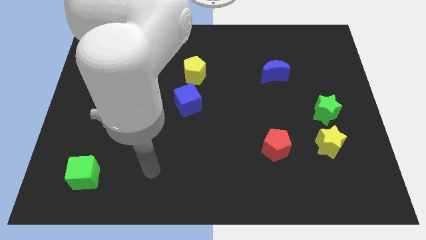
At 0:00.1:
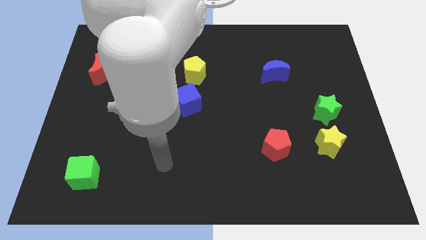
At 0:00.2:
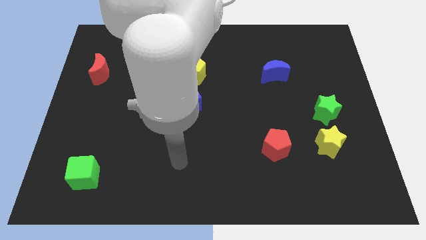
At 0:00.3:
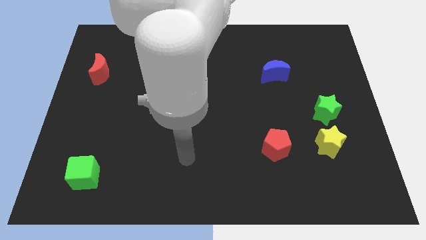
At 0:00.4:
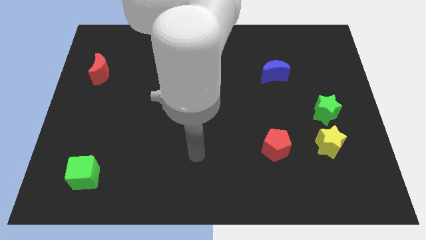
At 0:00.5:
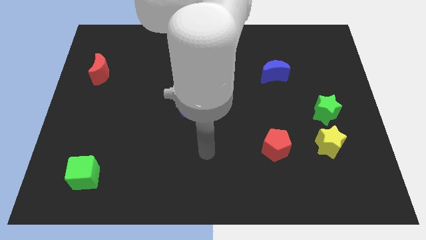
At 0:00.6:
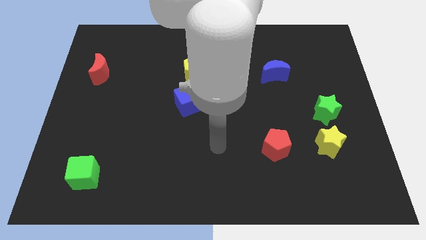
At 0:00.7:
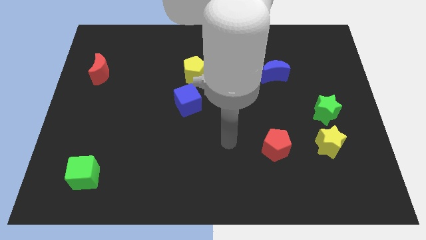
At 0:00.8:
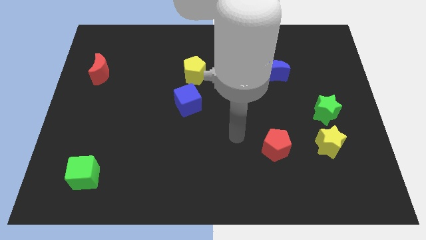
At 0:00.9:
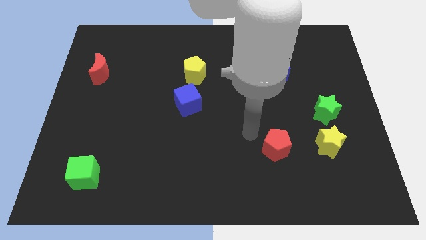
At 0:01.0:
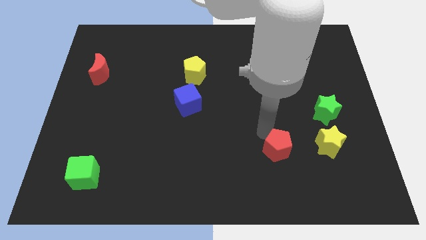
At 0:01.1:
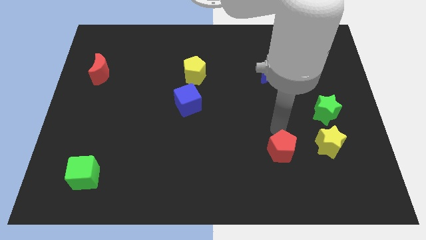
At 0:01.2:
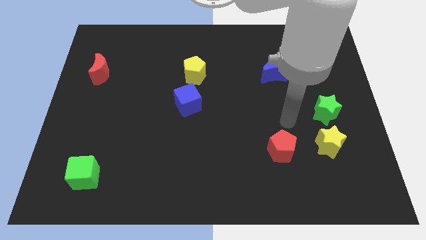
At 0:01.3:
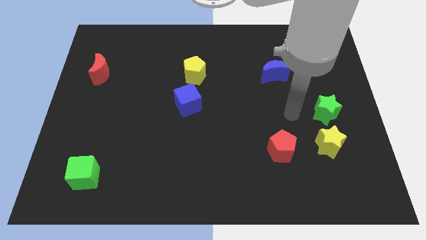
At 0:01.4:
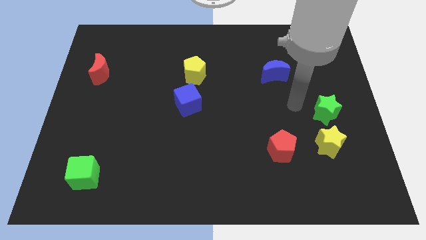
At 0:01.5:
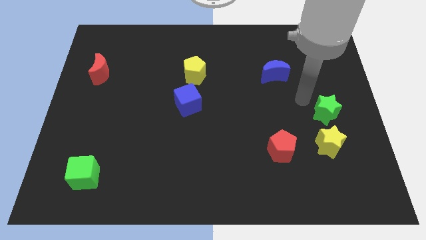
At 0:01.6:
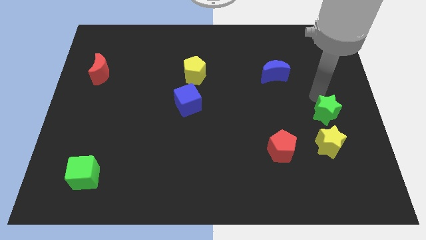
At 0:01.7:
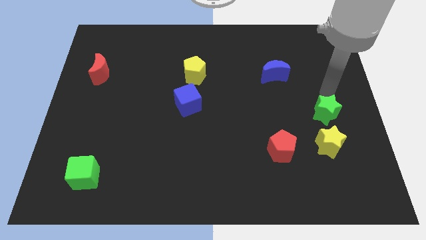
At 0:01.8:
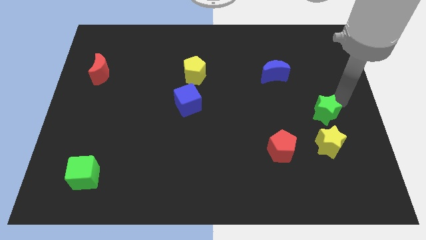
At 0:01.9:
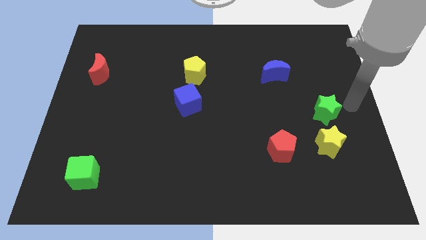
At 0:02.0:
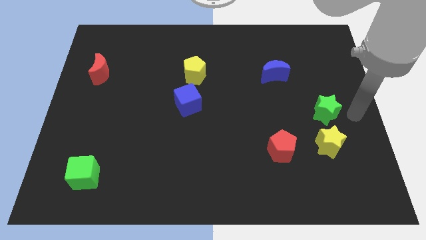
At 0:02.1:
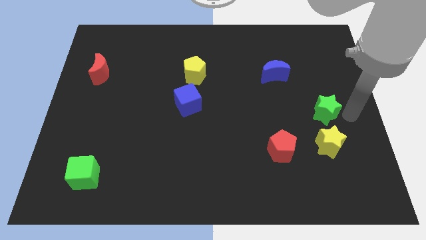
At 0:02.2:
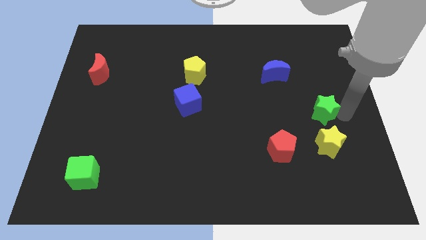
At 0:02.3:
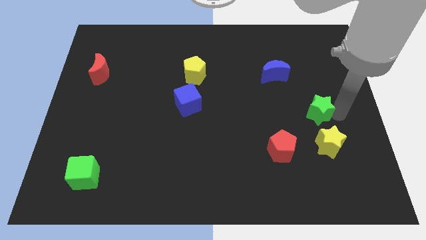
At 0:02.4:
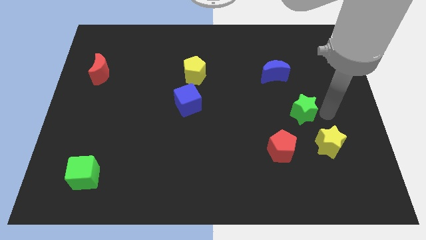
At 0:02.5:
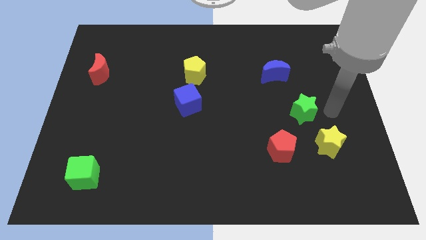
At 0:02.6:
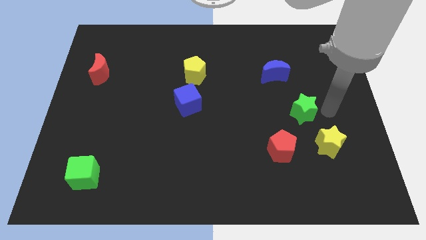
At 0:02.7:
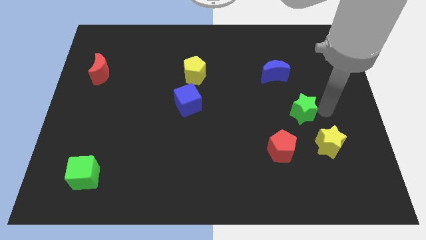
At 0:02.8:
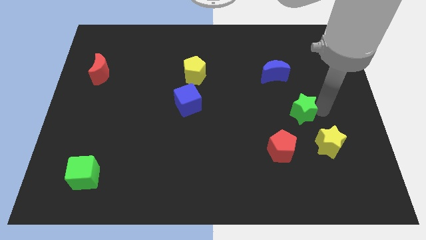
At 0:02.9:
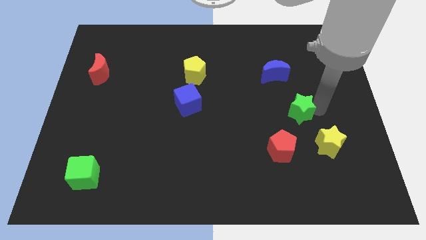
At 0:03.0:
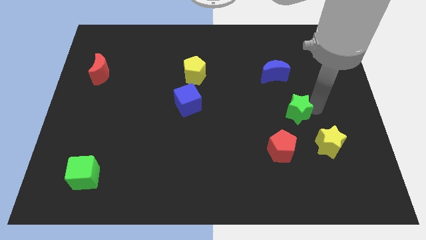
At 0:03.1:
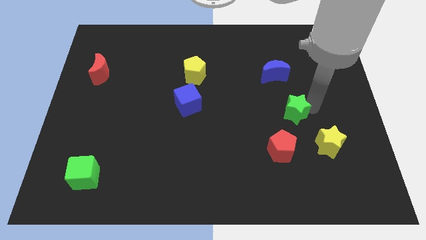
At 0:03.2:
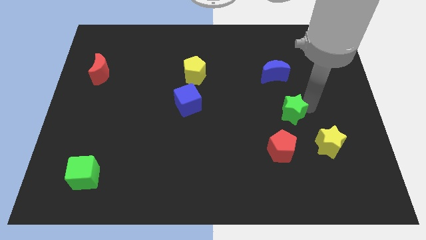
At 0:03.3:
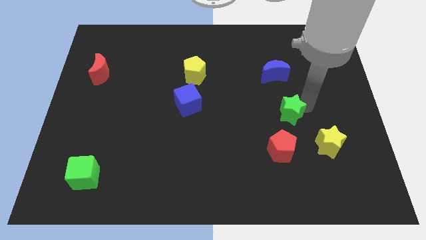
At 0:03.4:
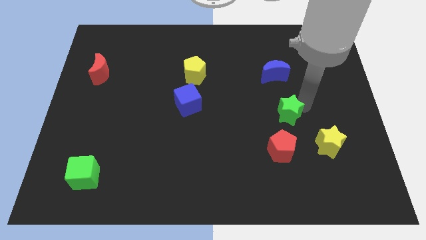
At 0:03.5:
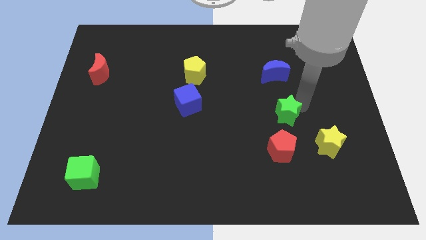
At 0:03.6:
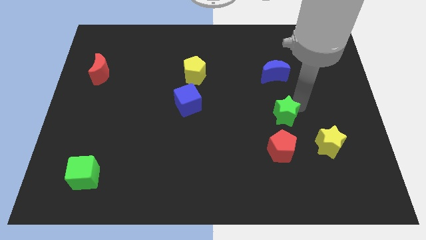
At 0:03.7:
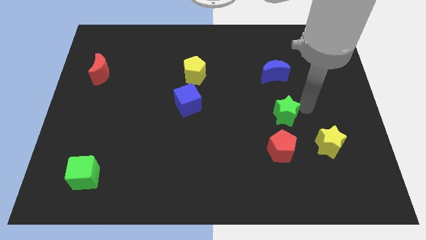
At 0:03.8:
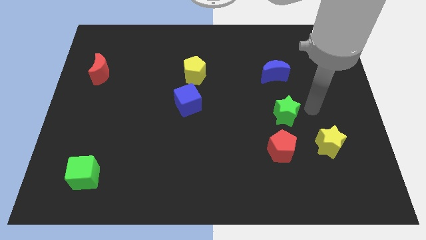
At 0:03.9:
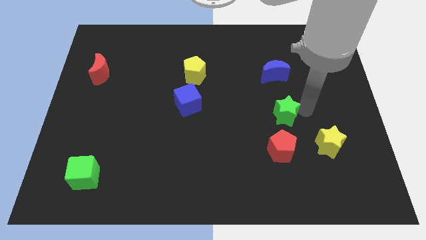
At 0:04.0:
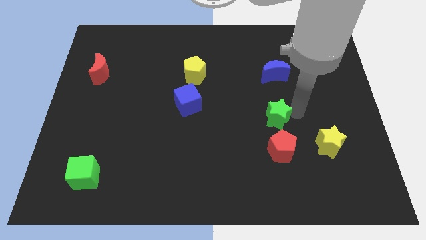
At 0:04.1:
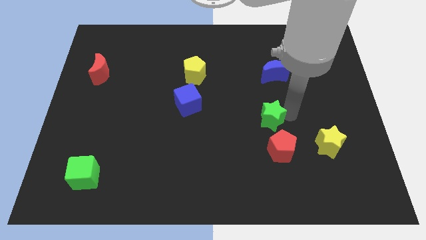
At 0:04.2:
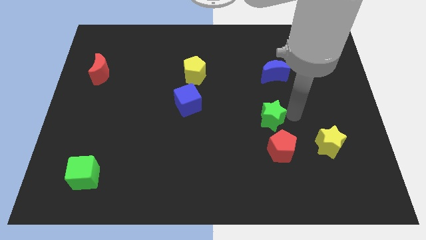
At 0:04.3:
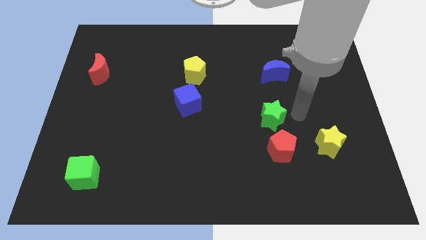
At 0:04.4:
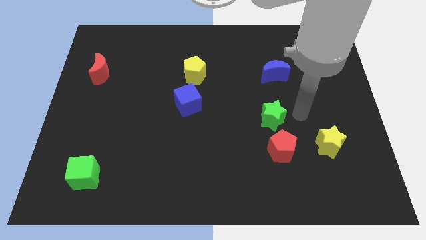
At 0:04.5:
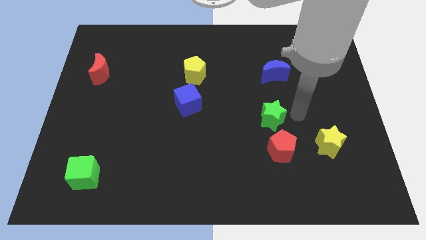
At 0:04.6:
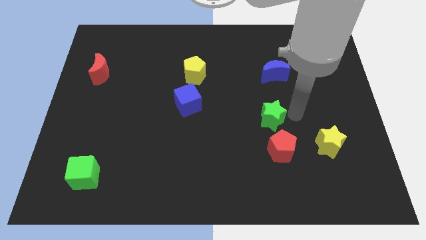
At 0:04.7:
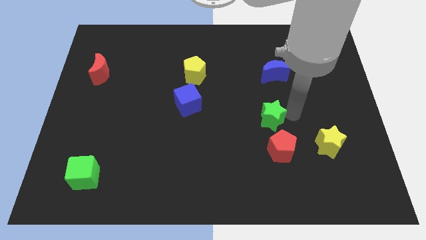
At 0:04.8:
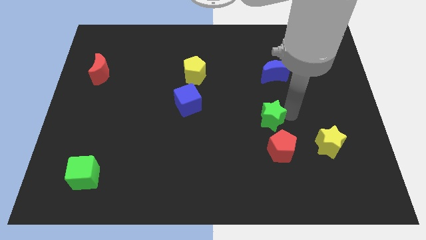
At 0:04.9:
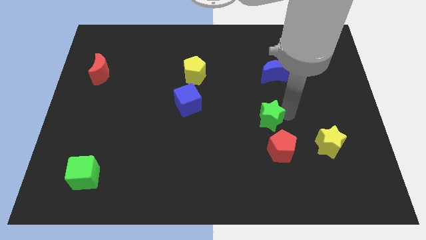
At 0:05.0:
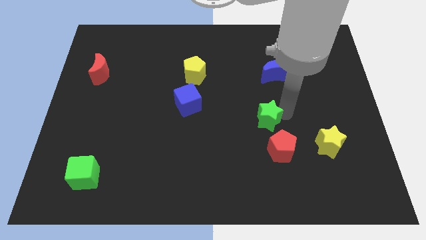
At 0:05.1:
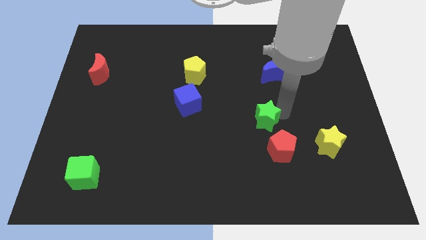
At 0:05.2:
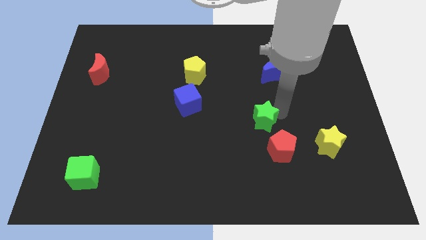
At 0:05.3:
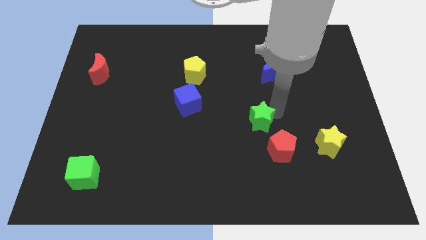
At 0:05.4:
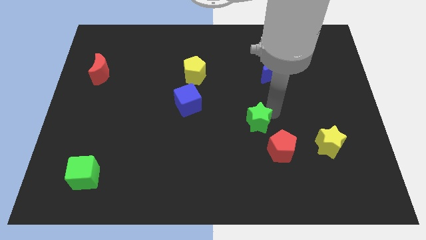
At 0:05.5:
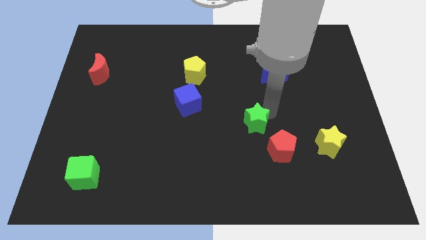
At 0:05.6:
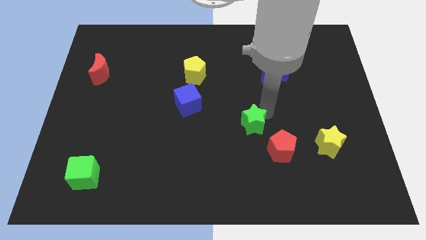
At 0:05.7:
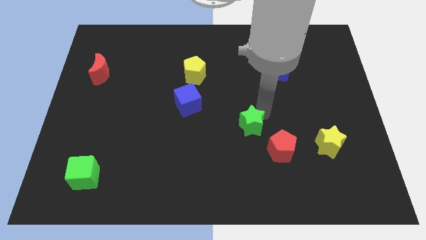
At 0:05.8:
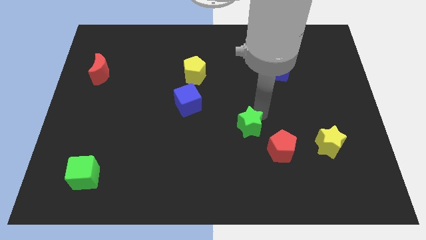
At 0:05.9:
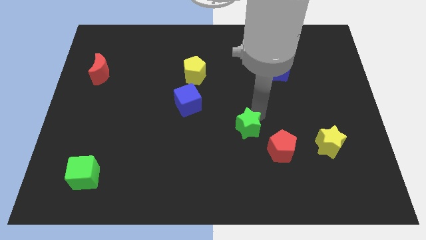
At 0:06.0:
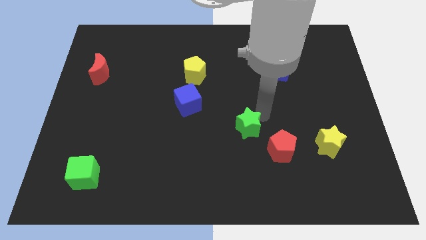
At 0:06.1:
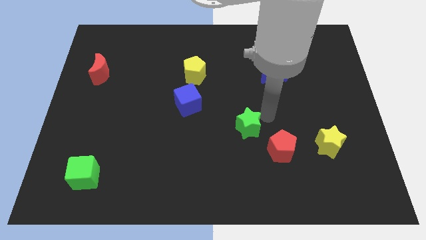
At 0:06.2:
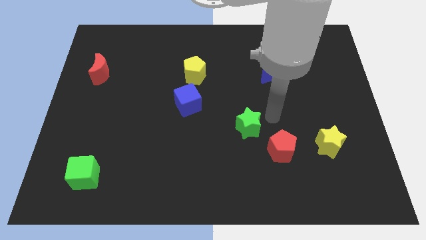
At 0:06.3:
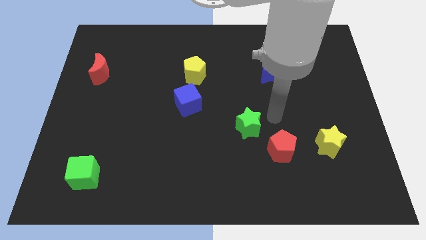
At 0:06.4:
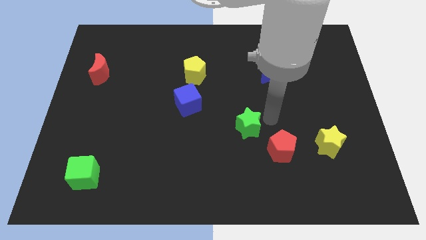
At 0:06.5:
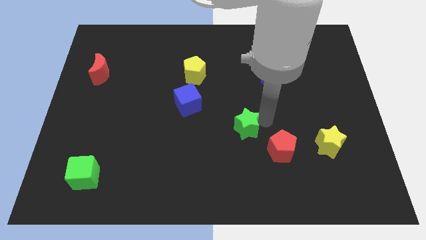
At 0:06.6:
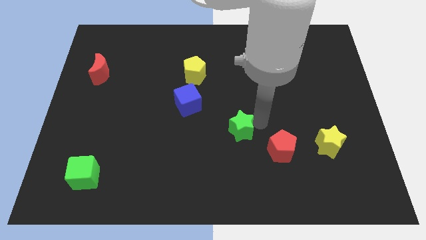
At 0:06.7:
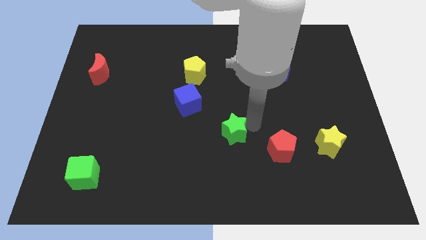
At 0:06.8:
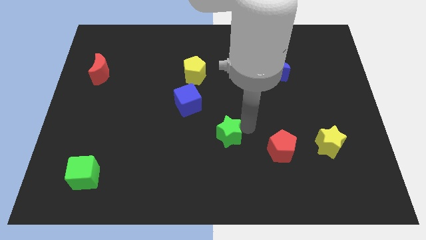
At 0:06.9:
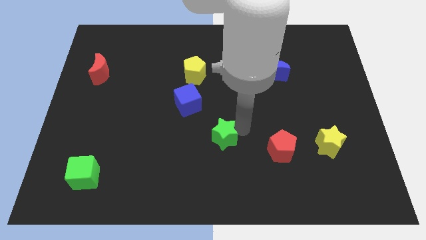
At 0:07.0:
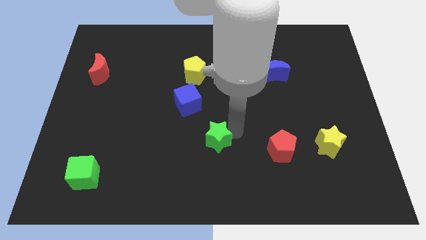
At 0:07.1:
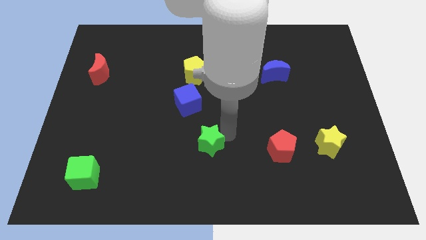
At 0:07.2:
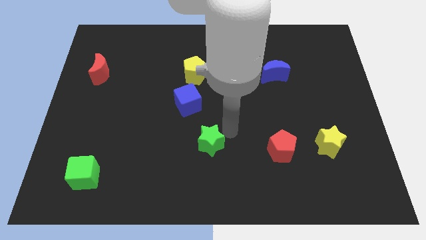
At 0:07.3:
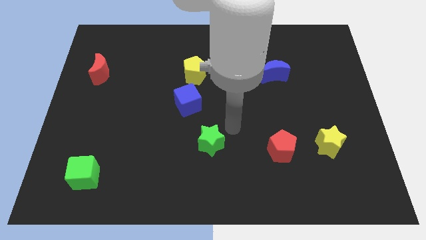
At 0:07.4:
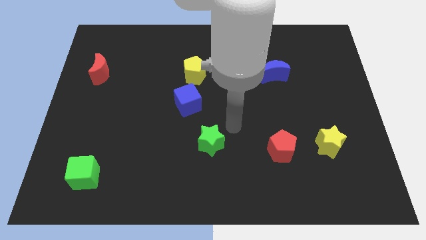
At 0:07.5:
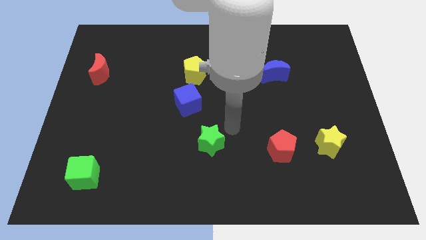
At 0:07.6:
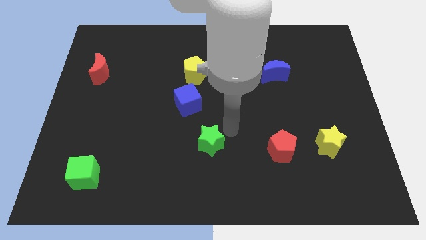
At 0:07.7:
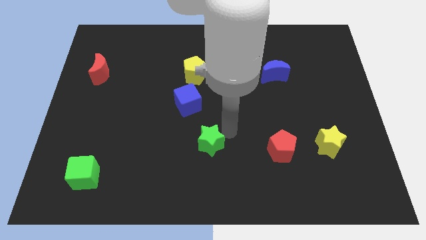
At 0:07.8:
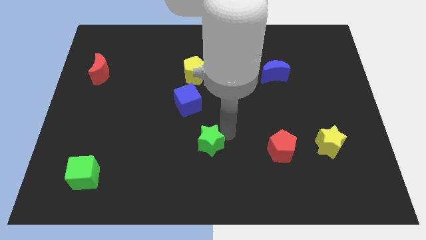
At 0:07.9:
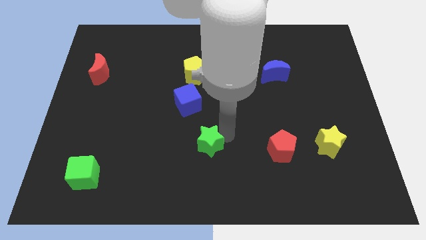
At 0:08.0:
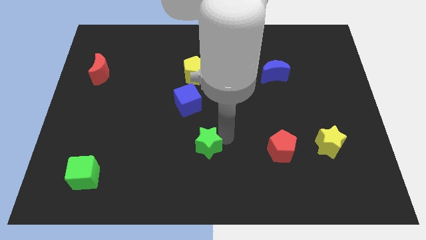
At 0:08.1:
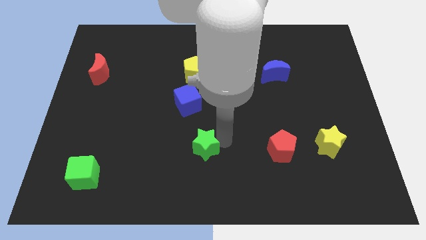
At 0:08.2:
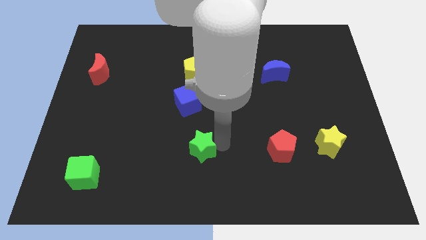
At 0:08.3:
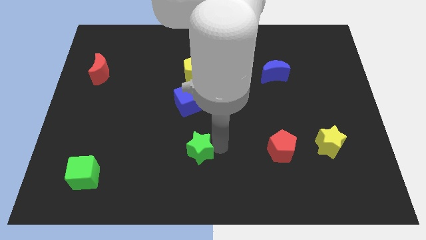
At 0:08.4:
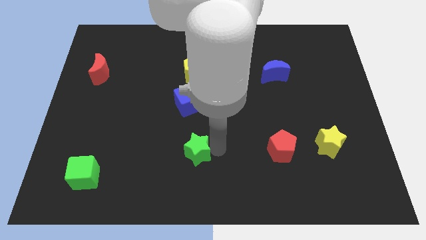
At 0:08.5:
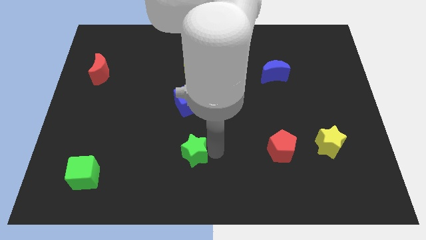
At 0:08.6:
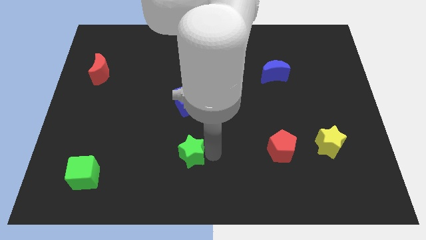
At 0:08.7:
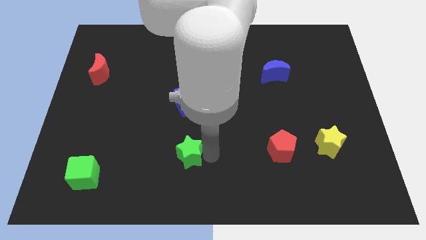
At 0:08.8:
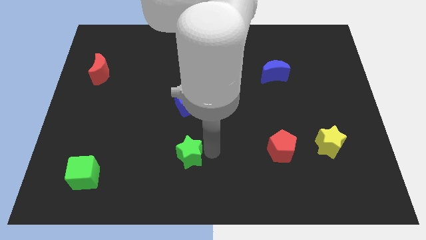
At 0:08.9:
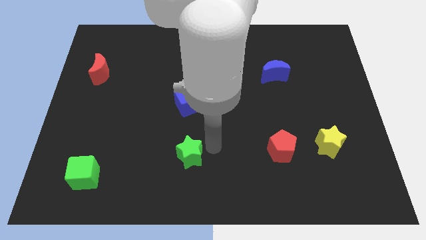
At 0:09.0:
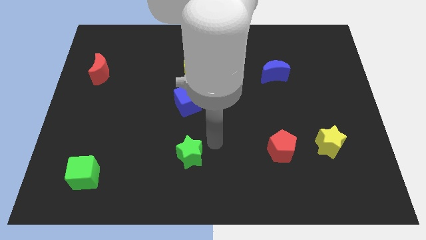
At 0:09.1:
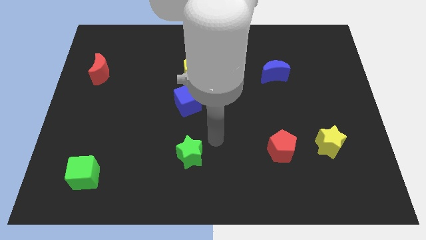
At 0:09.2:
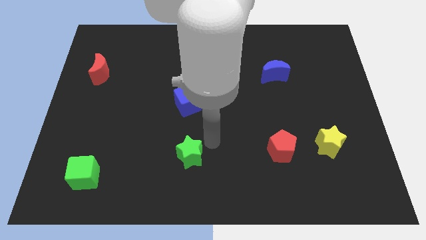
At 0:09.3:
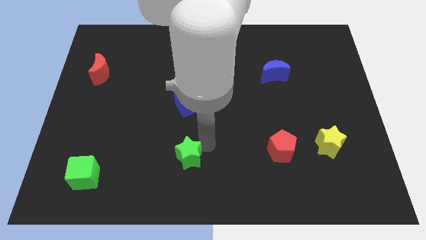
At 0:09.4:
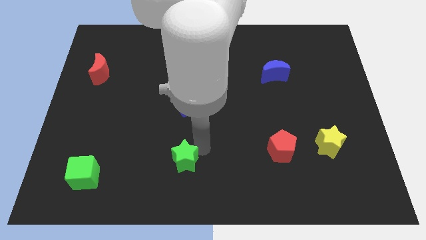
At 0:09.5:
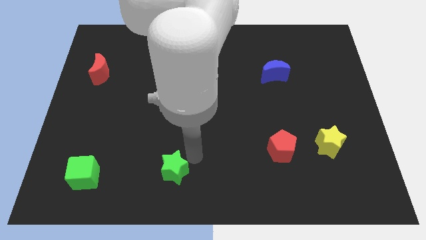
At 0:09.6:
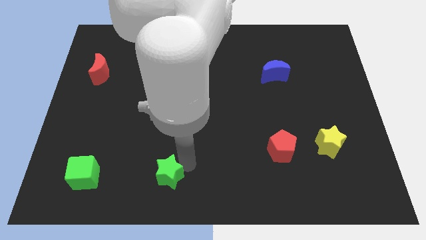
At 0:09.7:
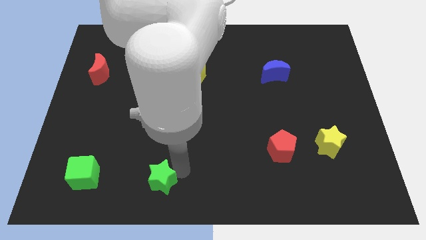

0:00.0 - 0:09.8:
push the green star to the right side of the green cube
